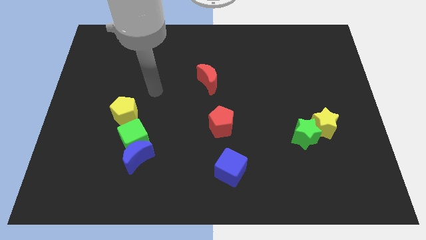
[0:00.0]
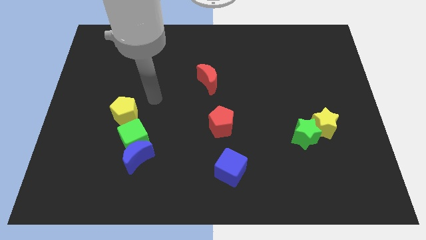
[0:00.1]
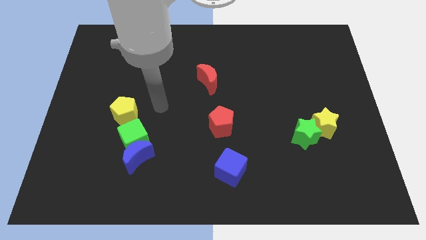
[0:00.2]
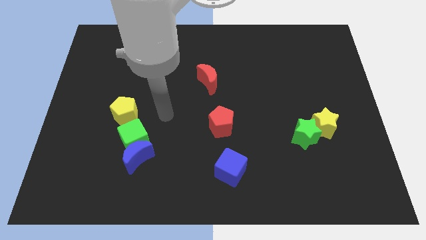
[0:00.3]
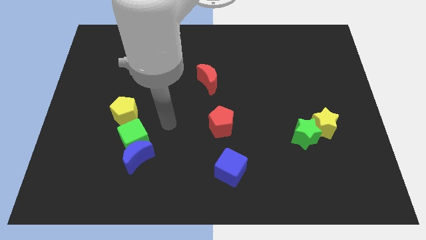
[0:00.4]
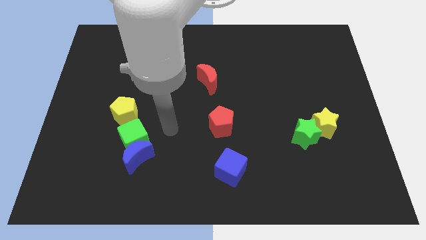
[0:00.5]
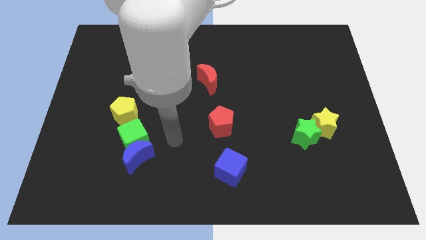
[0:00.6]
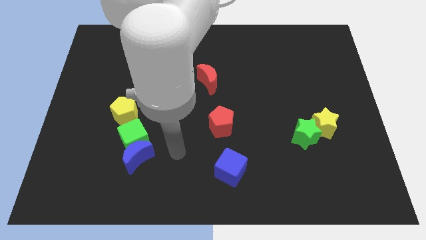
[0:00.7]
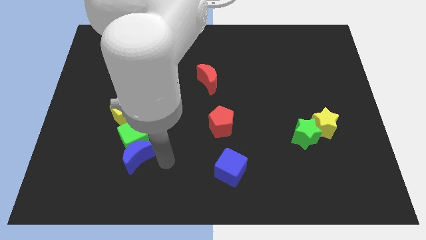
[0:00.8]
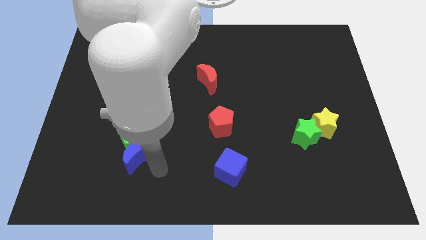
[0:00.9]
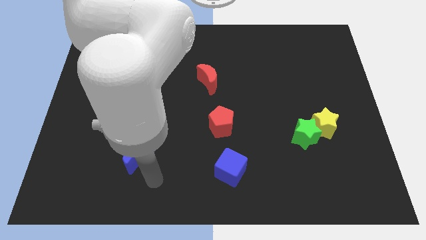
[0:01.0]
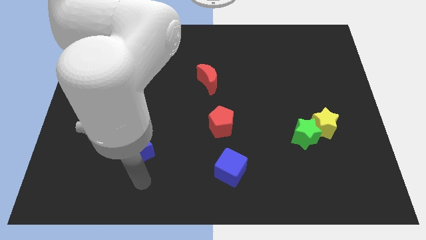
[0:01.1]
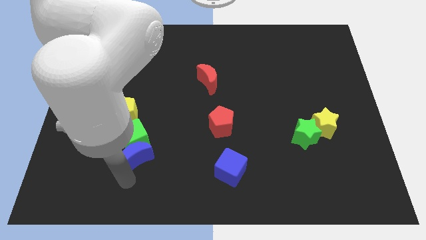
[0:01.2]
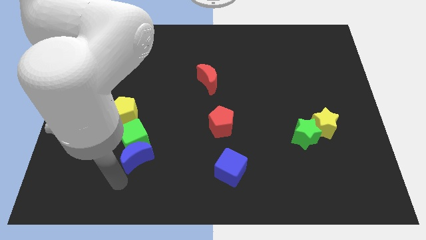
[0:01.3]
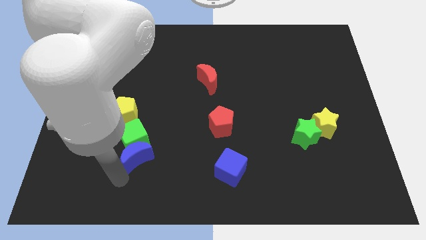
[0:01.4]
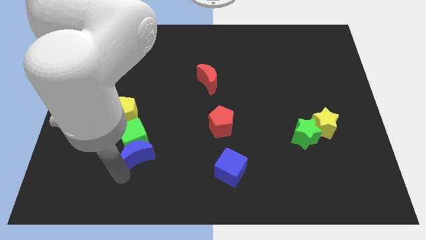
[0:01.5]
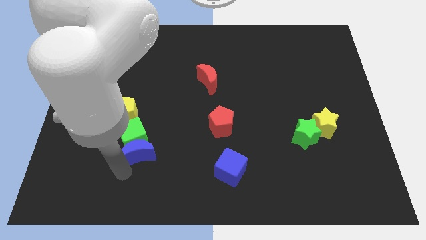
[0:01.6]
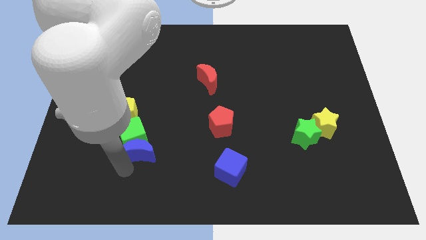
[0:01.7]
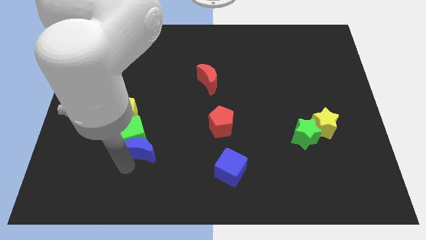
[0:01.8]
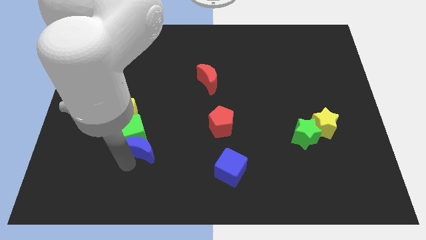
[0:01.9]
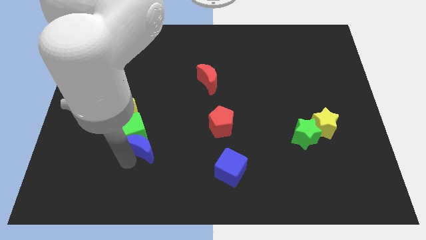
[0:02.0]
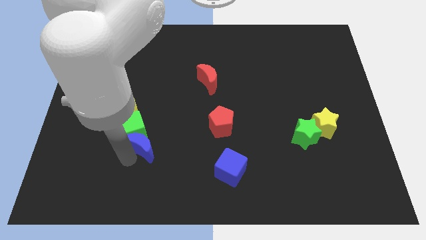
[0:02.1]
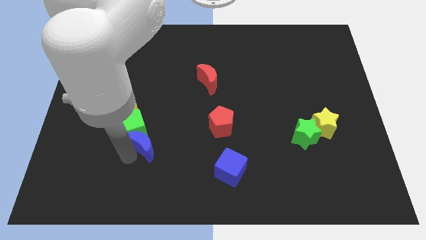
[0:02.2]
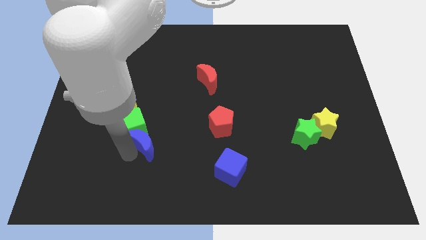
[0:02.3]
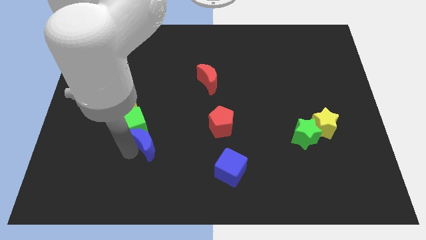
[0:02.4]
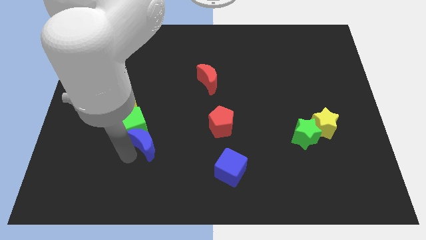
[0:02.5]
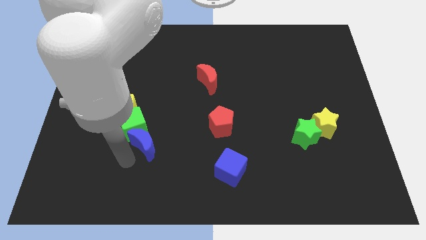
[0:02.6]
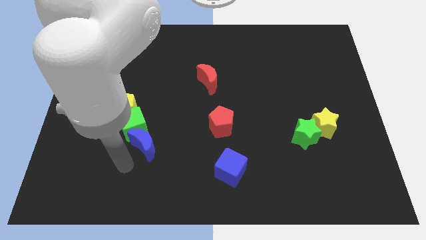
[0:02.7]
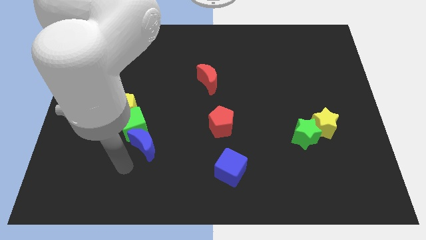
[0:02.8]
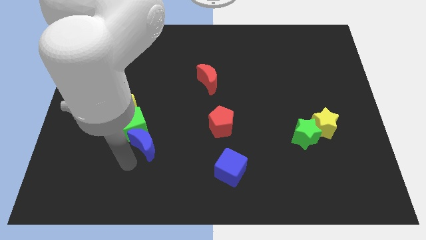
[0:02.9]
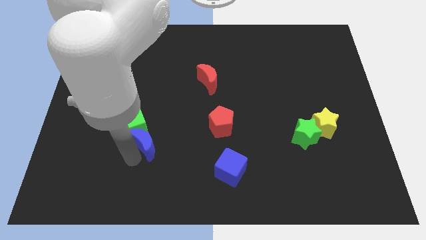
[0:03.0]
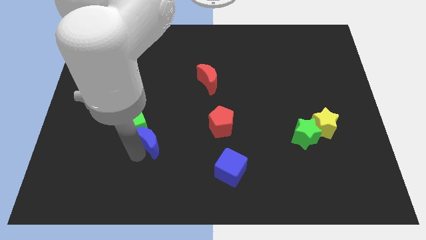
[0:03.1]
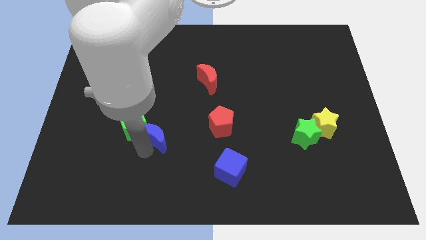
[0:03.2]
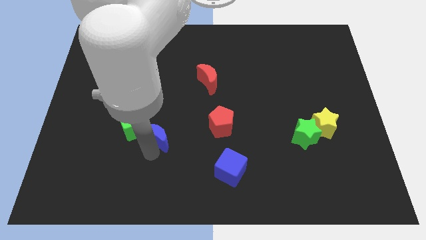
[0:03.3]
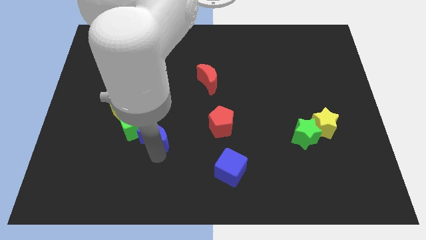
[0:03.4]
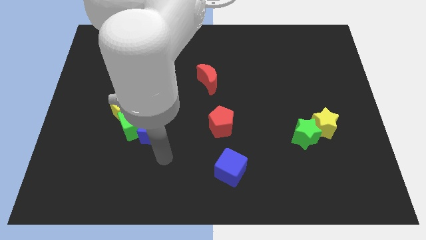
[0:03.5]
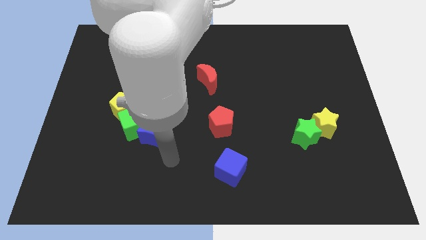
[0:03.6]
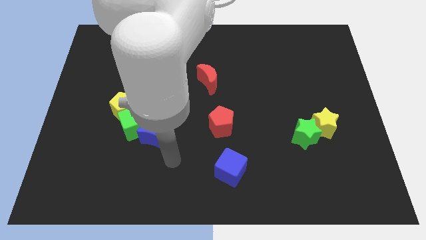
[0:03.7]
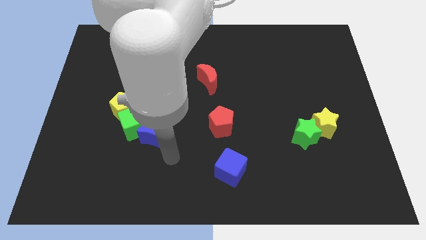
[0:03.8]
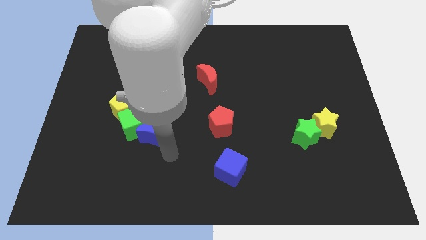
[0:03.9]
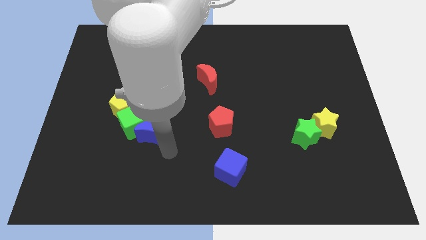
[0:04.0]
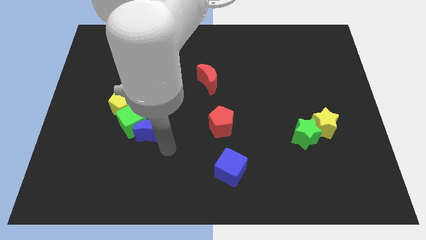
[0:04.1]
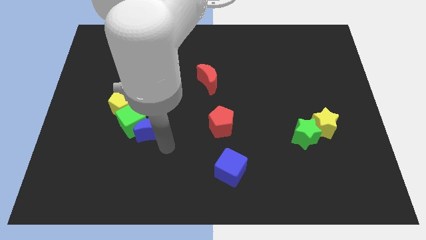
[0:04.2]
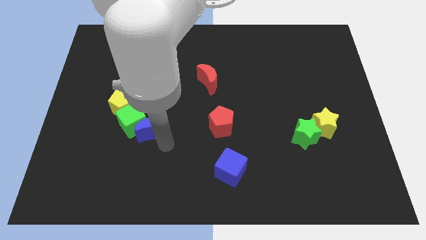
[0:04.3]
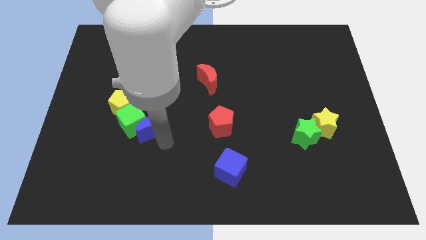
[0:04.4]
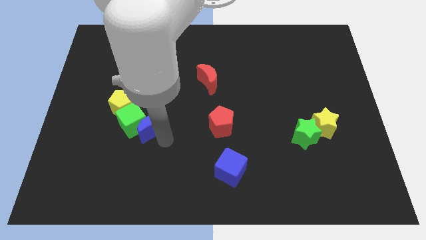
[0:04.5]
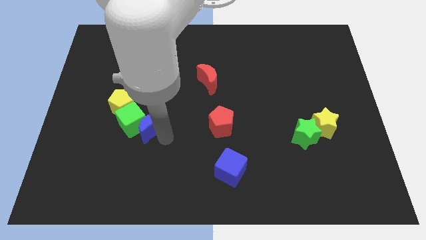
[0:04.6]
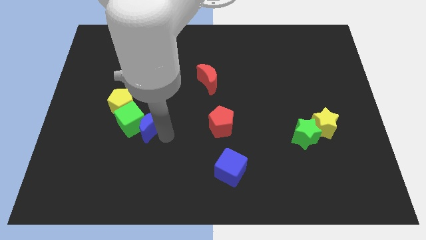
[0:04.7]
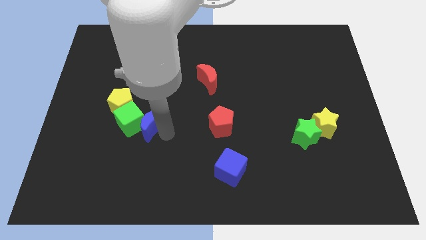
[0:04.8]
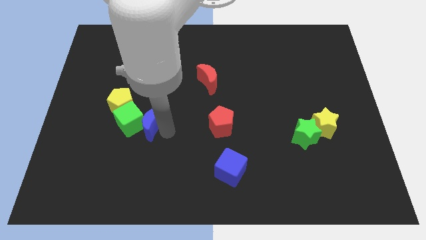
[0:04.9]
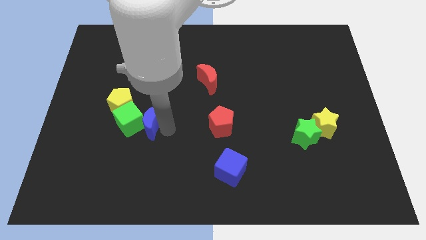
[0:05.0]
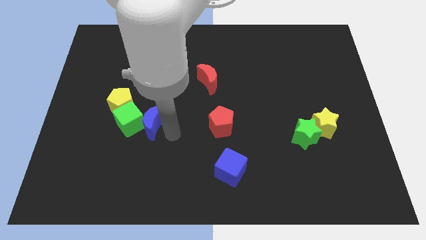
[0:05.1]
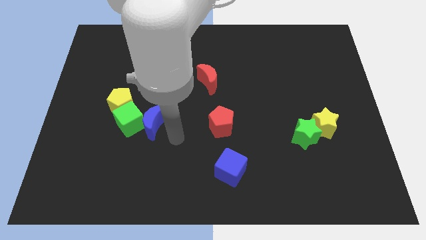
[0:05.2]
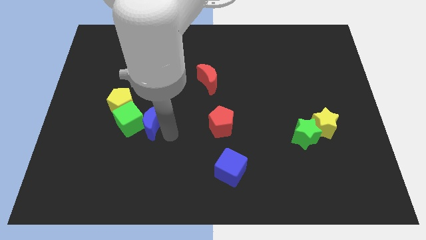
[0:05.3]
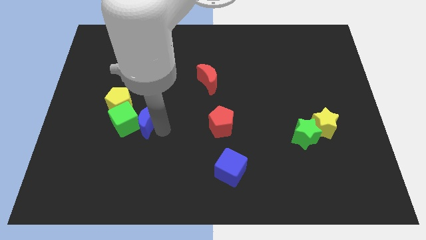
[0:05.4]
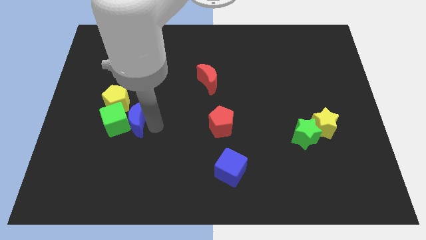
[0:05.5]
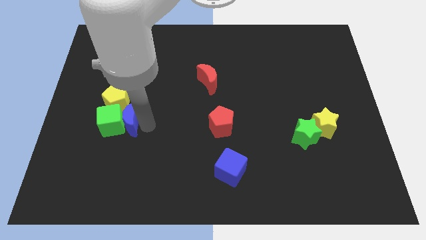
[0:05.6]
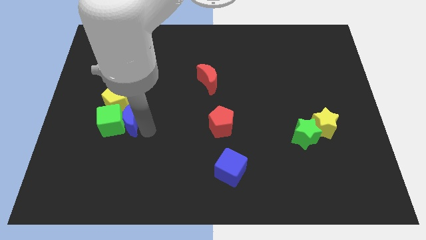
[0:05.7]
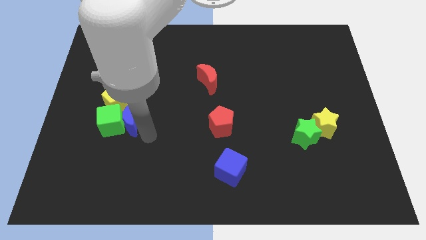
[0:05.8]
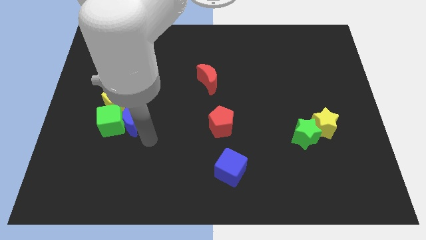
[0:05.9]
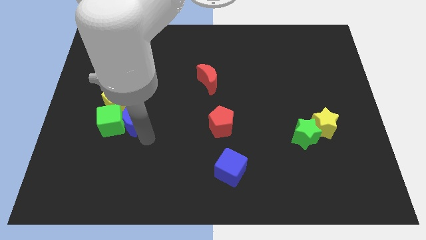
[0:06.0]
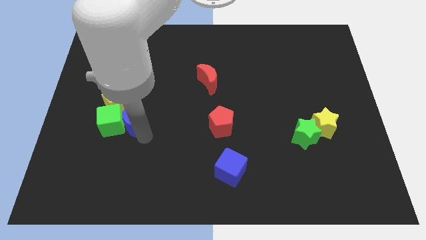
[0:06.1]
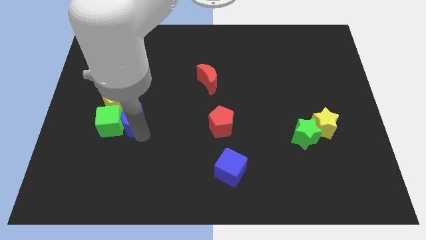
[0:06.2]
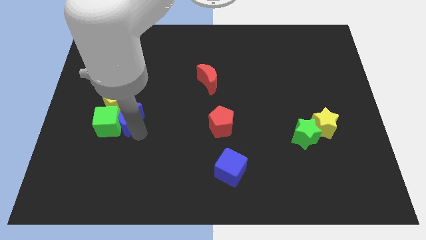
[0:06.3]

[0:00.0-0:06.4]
slide the blue moon to the yellow pentagon

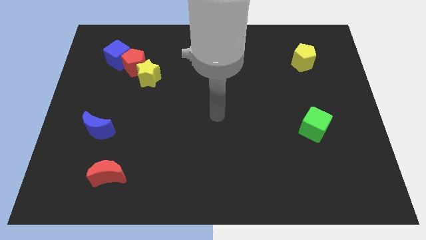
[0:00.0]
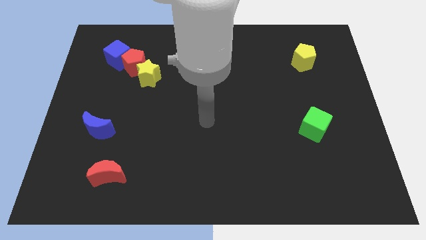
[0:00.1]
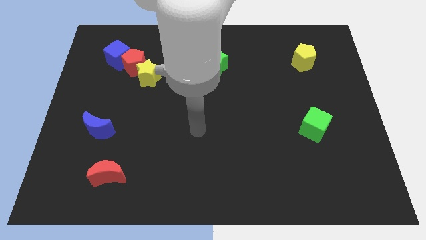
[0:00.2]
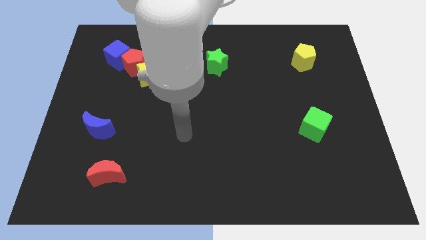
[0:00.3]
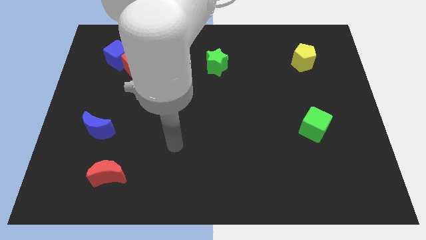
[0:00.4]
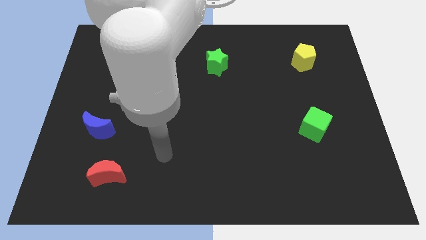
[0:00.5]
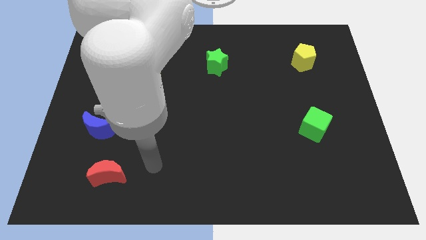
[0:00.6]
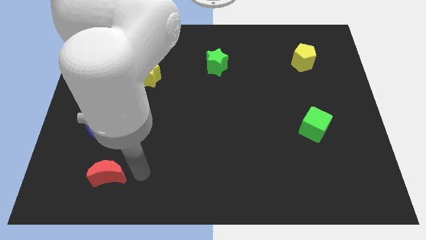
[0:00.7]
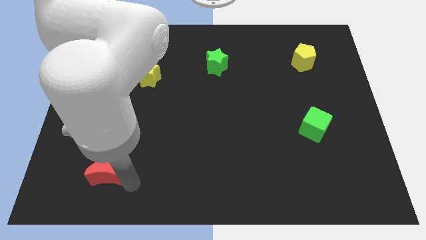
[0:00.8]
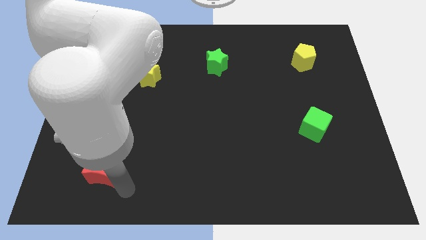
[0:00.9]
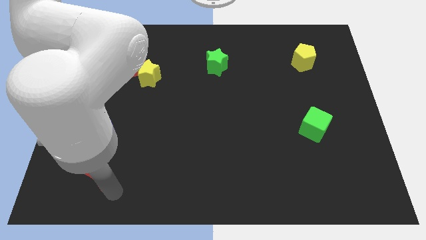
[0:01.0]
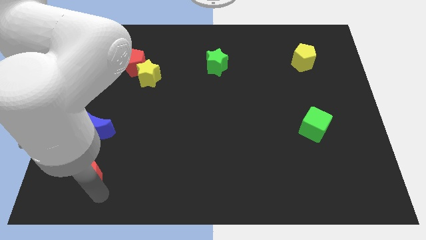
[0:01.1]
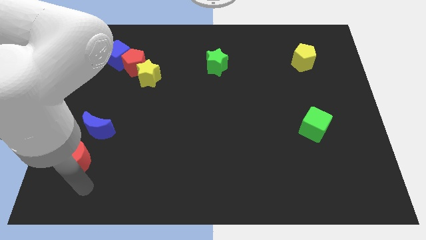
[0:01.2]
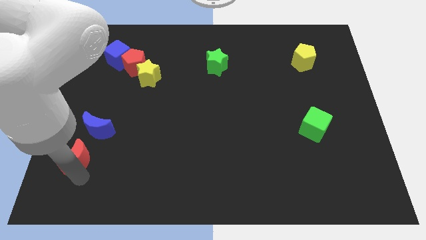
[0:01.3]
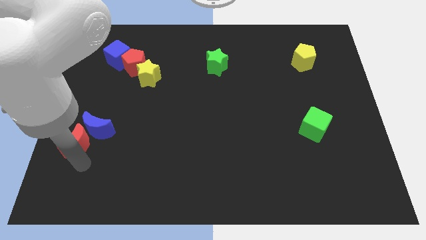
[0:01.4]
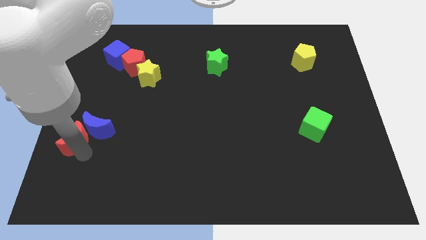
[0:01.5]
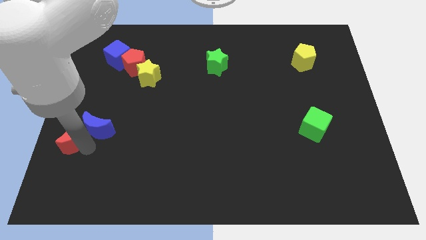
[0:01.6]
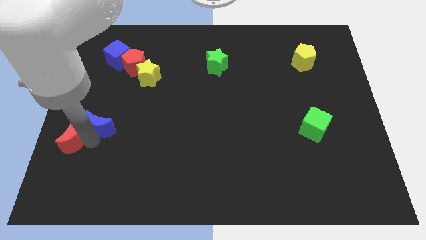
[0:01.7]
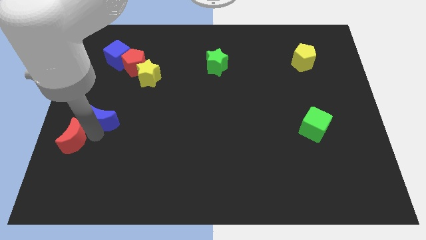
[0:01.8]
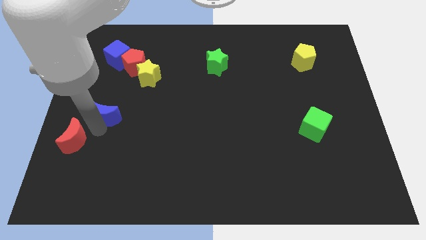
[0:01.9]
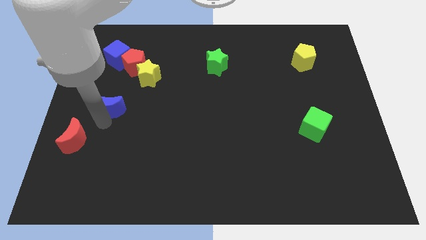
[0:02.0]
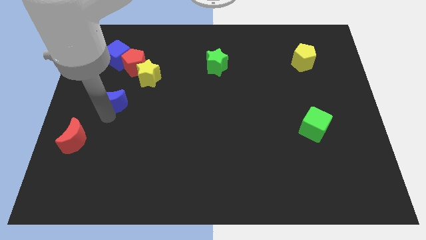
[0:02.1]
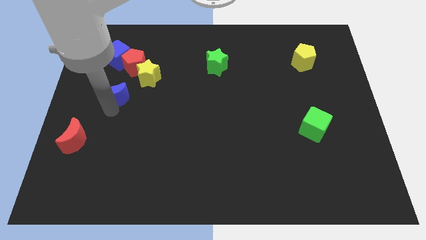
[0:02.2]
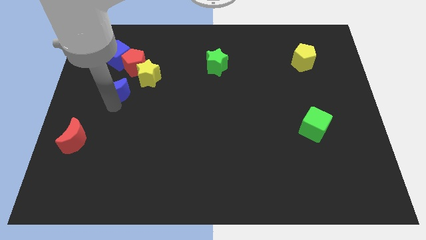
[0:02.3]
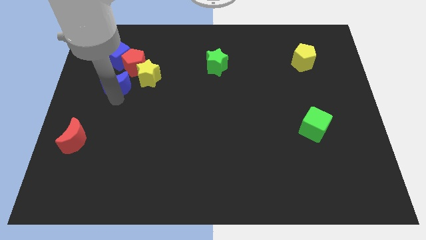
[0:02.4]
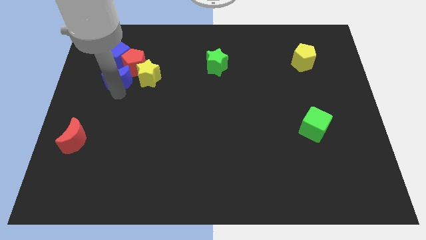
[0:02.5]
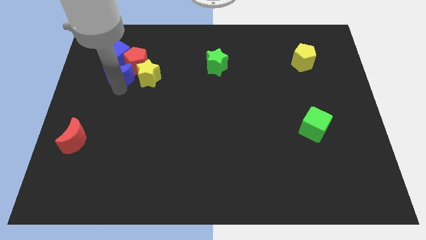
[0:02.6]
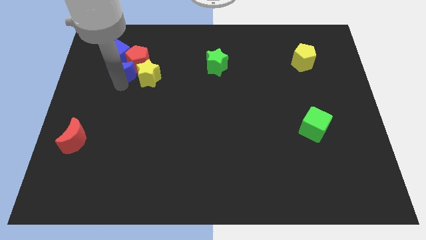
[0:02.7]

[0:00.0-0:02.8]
slide the blue moon close to the blue cube
